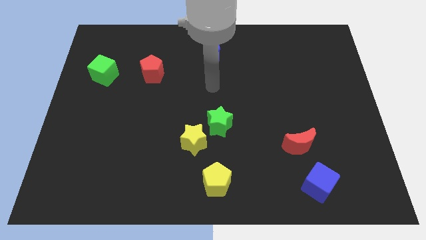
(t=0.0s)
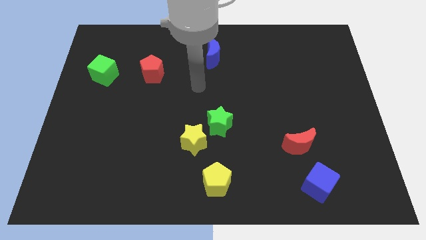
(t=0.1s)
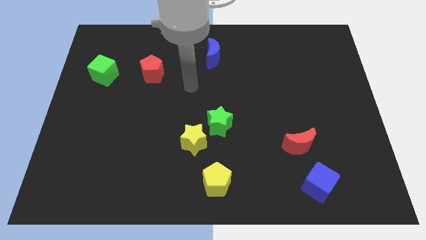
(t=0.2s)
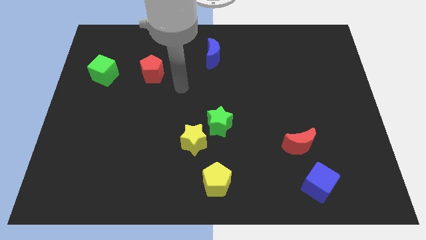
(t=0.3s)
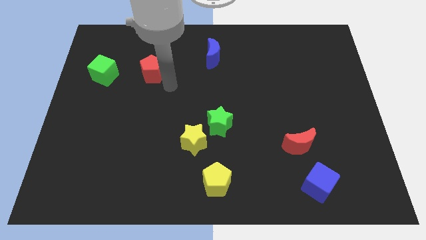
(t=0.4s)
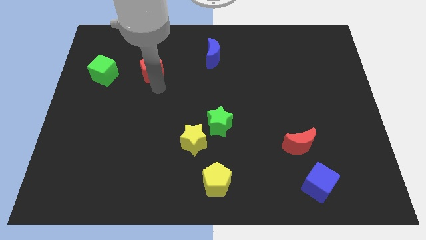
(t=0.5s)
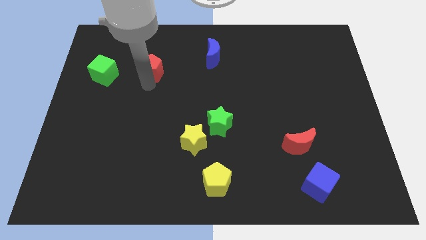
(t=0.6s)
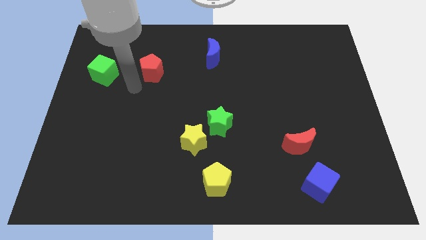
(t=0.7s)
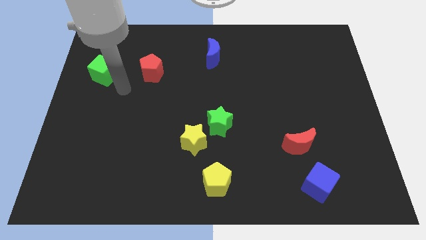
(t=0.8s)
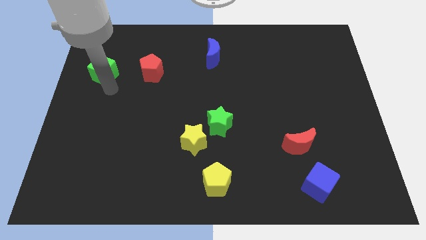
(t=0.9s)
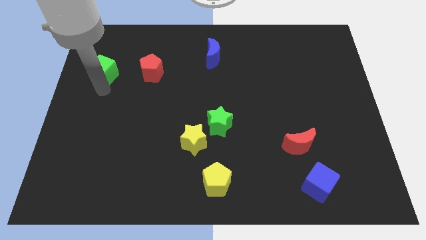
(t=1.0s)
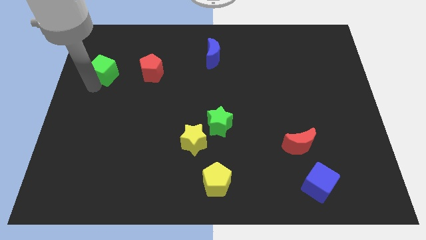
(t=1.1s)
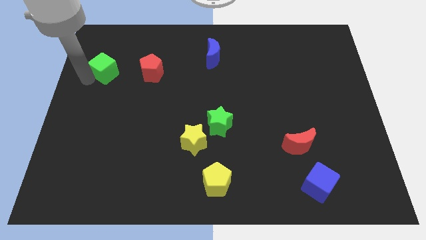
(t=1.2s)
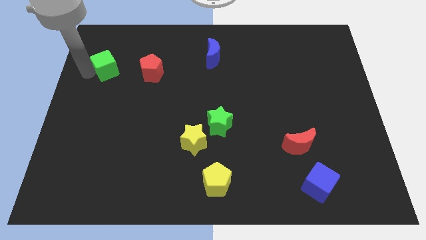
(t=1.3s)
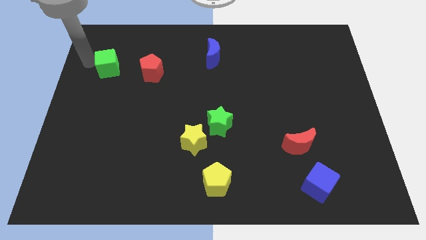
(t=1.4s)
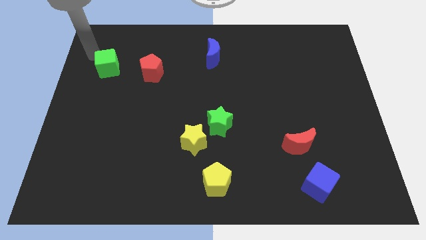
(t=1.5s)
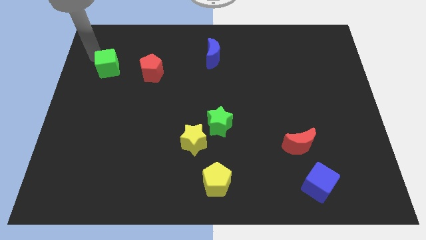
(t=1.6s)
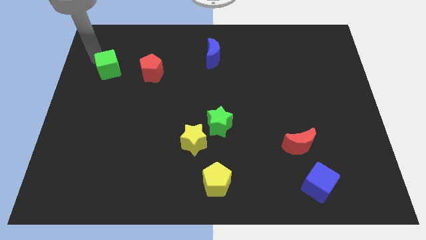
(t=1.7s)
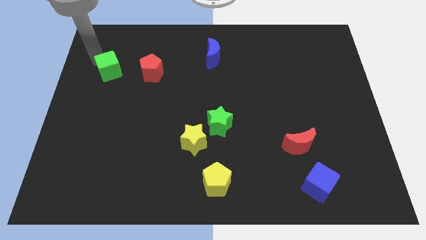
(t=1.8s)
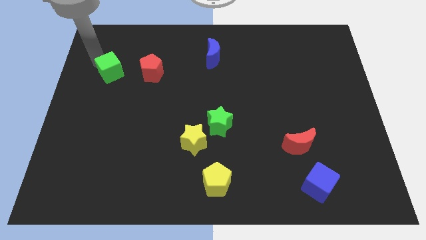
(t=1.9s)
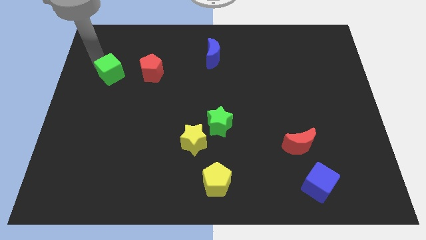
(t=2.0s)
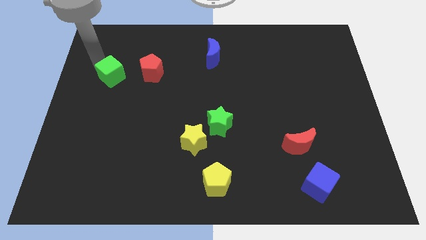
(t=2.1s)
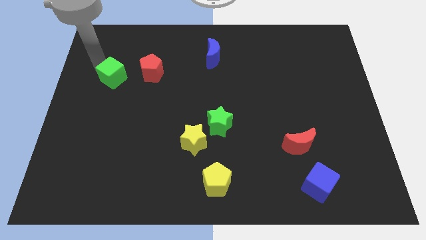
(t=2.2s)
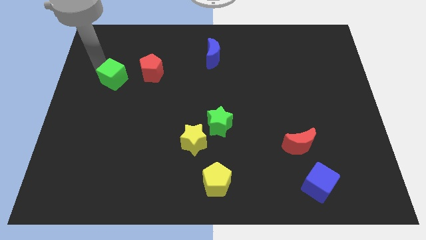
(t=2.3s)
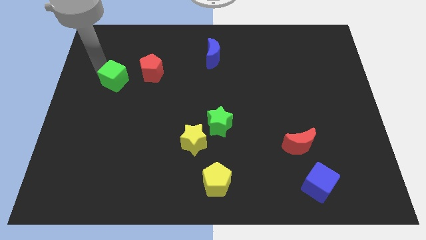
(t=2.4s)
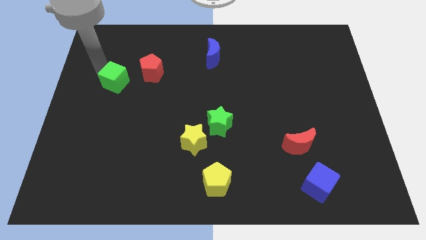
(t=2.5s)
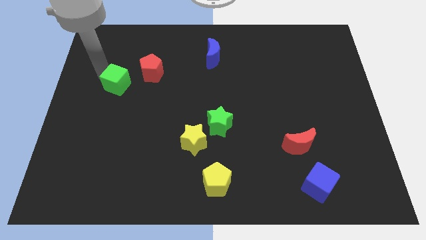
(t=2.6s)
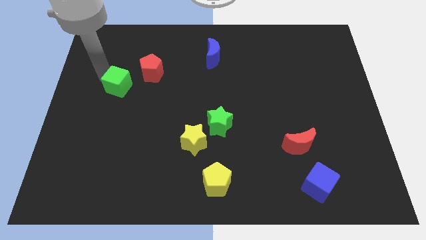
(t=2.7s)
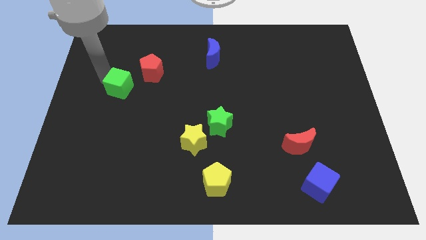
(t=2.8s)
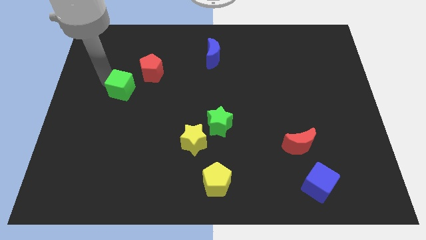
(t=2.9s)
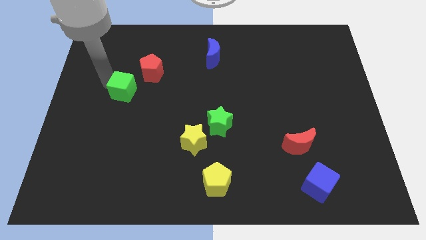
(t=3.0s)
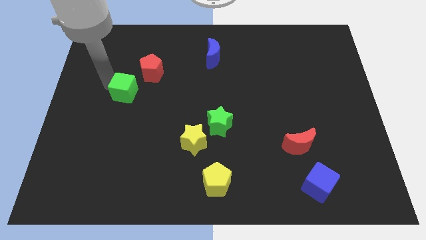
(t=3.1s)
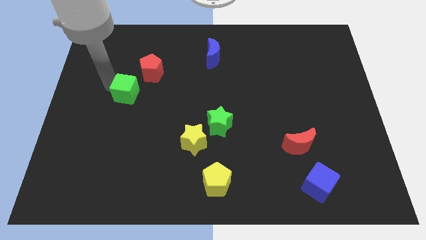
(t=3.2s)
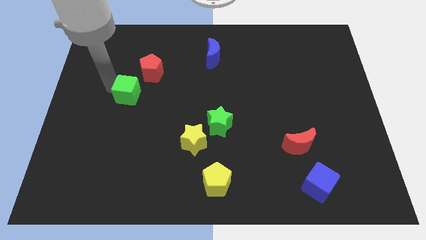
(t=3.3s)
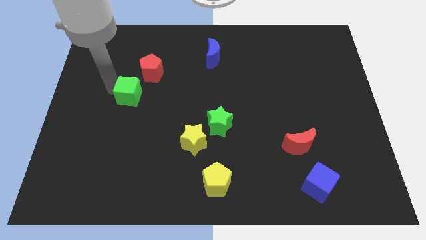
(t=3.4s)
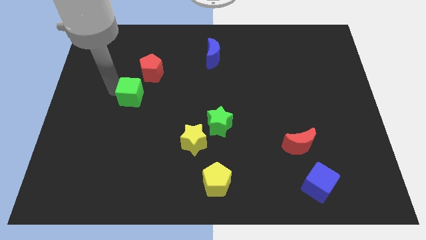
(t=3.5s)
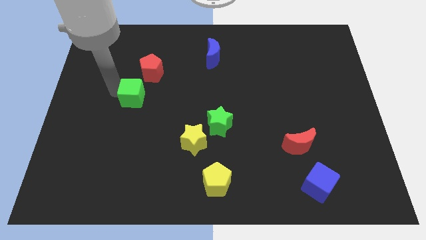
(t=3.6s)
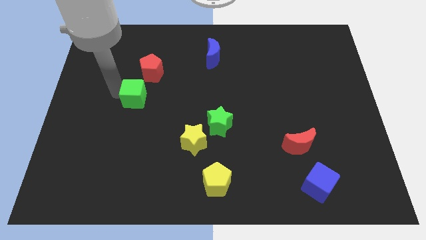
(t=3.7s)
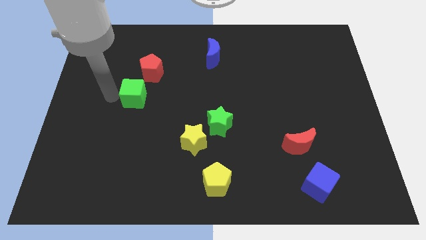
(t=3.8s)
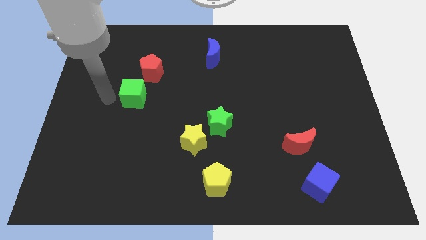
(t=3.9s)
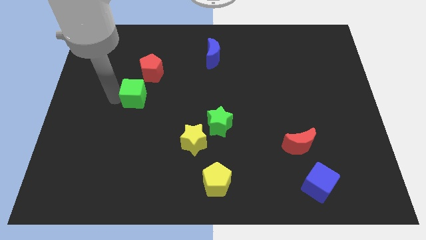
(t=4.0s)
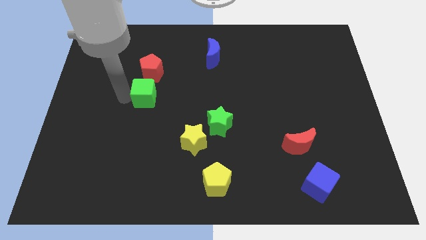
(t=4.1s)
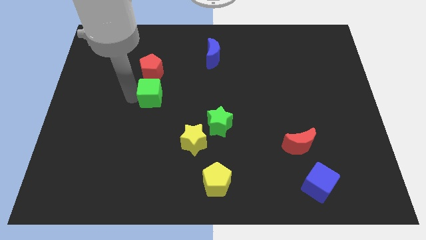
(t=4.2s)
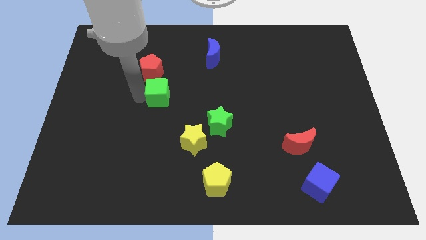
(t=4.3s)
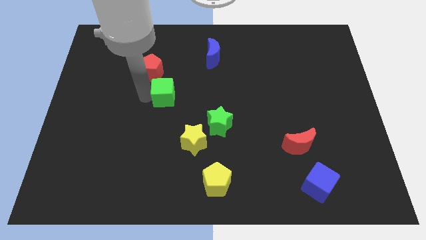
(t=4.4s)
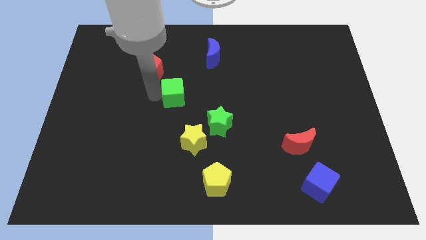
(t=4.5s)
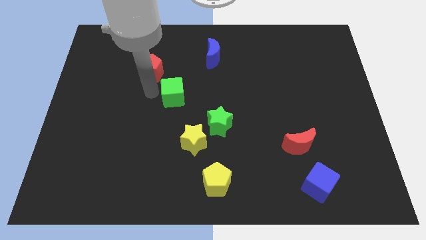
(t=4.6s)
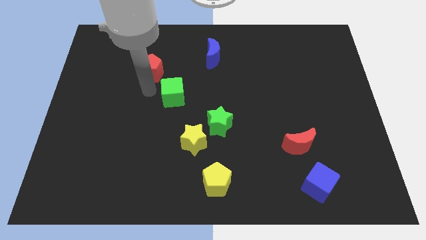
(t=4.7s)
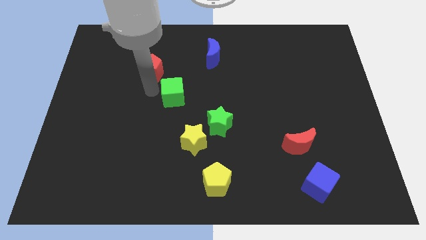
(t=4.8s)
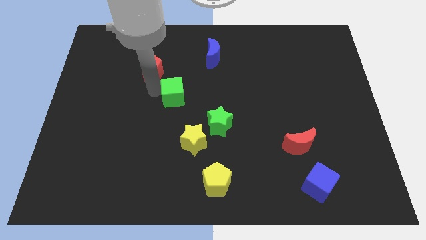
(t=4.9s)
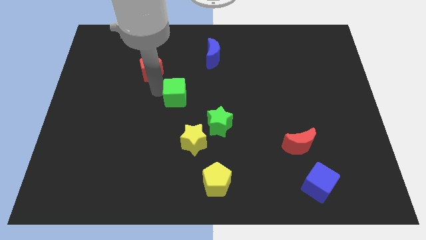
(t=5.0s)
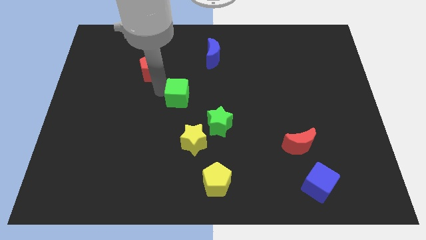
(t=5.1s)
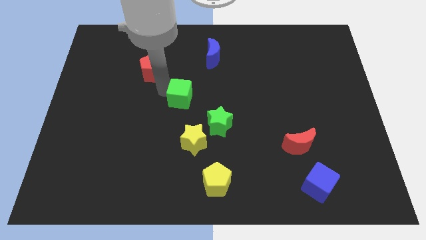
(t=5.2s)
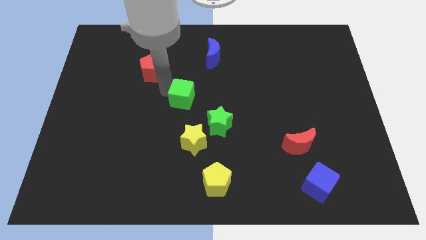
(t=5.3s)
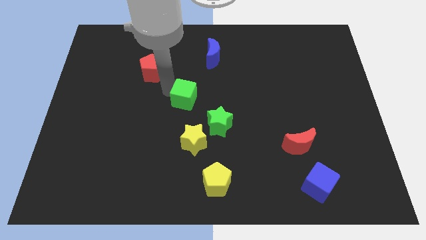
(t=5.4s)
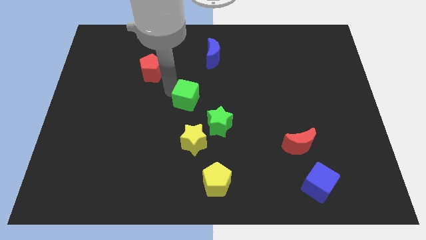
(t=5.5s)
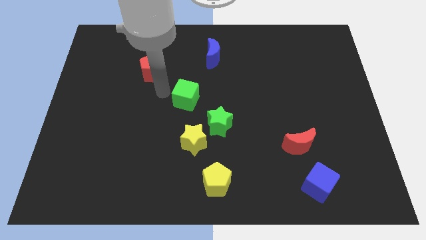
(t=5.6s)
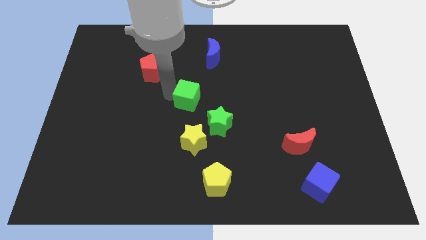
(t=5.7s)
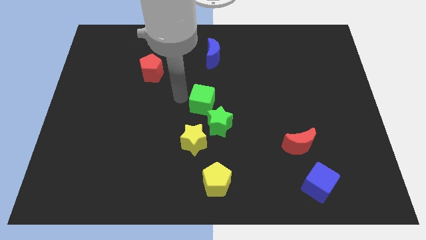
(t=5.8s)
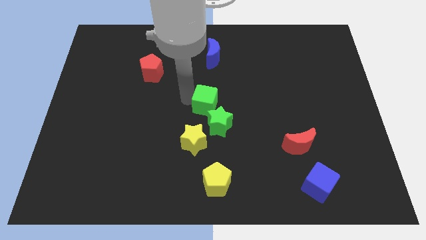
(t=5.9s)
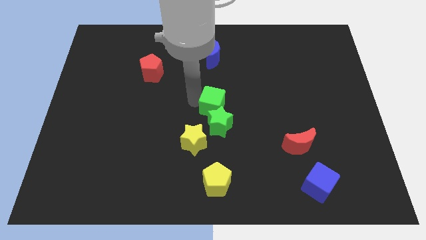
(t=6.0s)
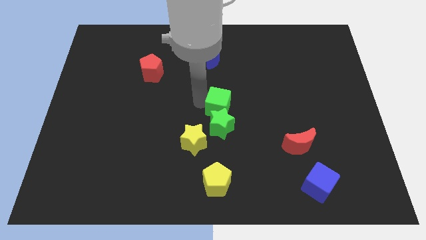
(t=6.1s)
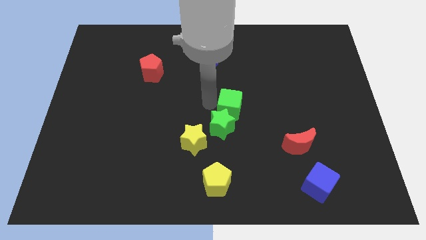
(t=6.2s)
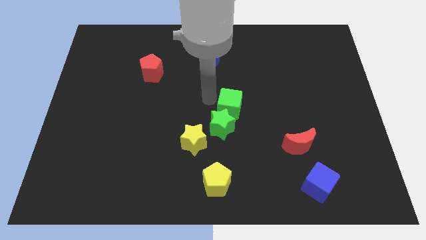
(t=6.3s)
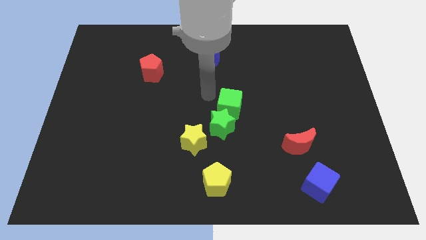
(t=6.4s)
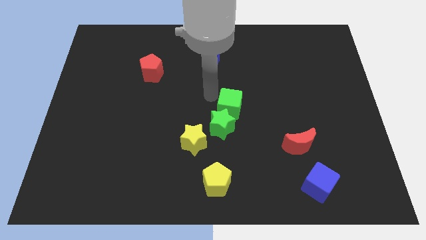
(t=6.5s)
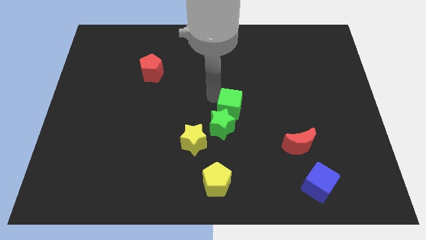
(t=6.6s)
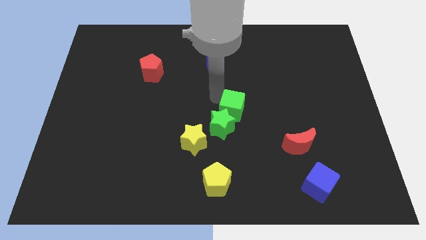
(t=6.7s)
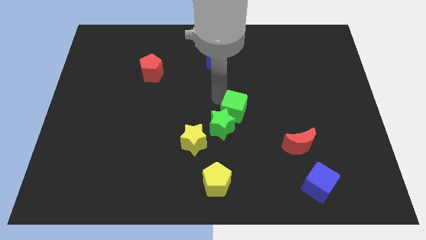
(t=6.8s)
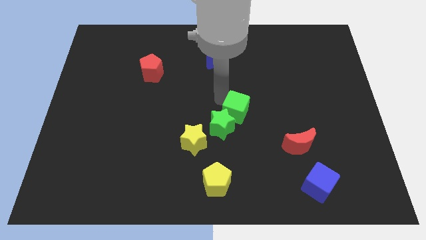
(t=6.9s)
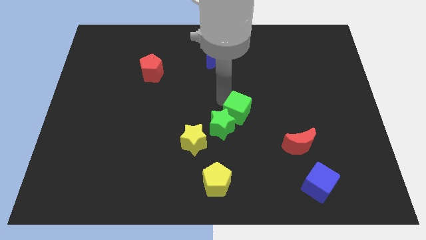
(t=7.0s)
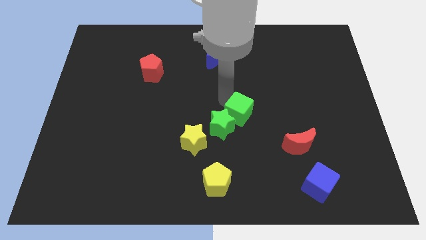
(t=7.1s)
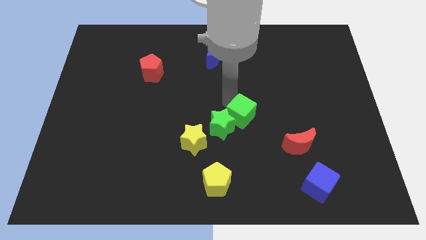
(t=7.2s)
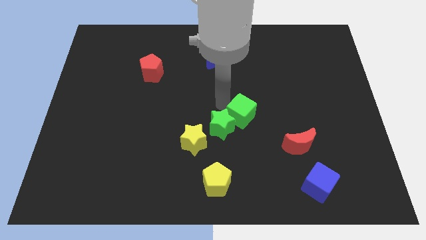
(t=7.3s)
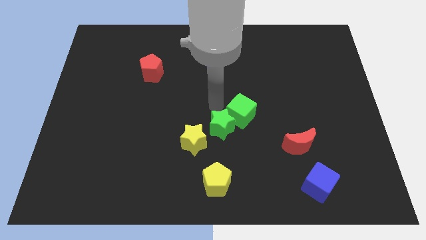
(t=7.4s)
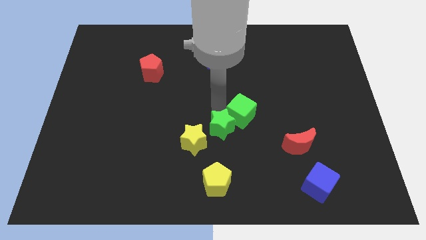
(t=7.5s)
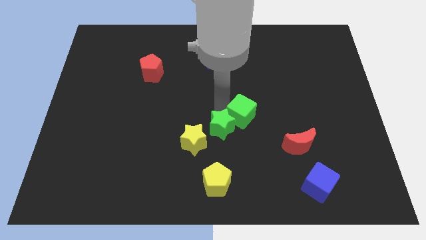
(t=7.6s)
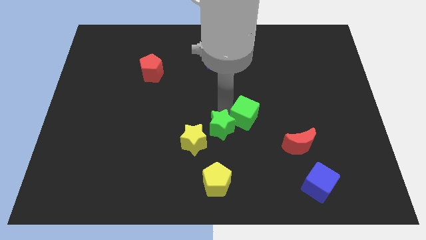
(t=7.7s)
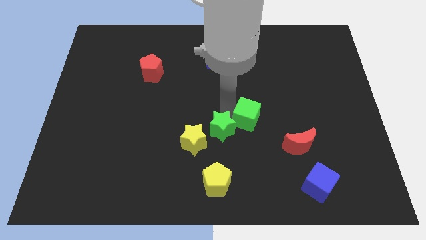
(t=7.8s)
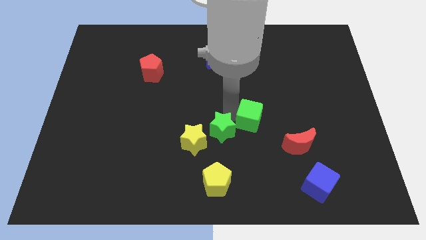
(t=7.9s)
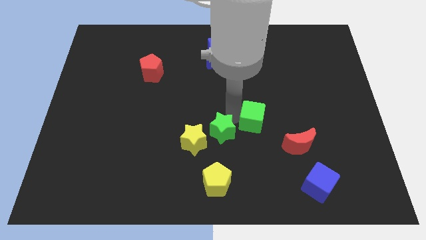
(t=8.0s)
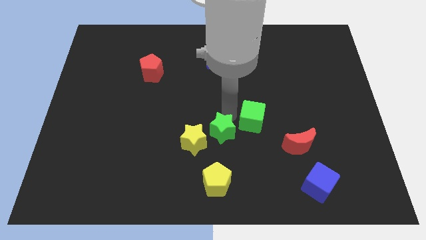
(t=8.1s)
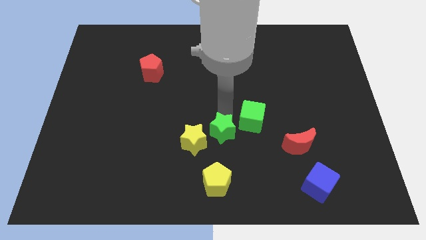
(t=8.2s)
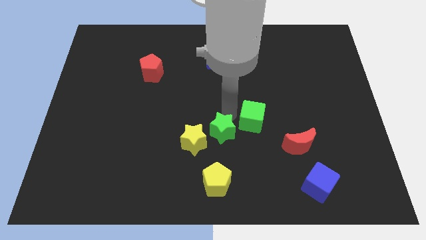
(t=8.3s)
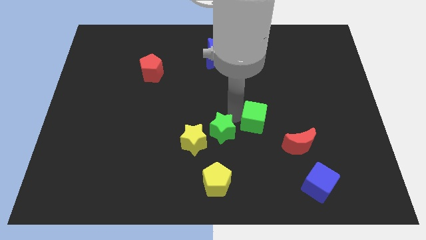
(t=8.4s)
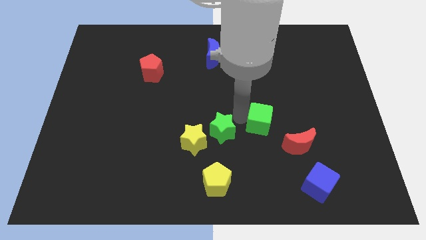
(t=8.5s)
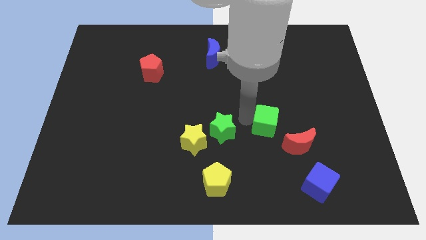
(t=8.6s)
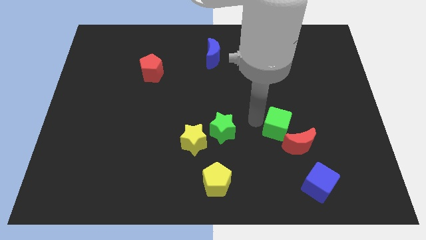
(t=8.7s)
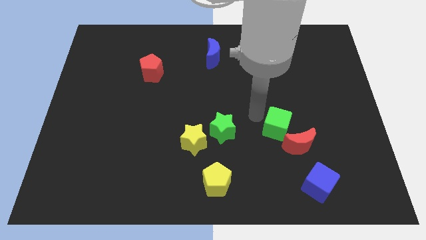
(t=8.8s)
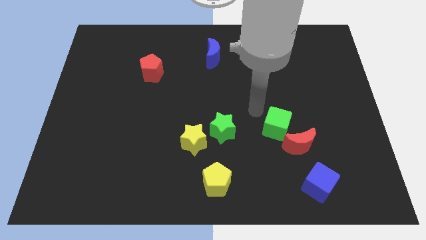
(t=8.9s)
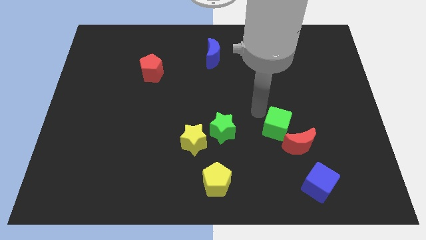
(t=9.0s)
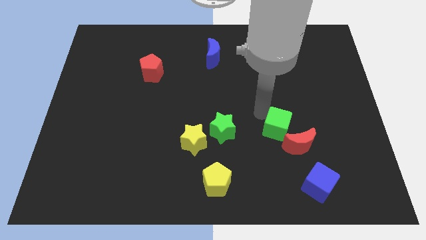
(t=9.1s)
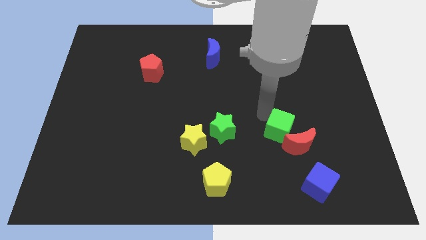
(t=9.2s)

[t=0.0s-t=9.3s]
move the green cube close to the red moon
